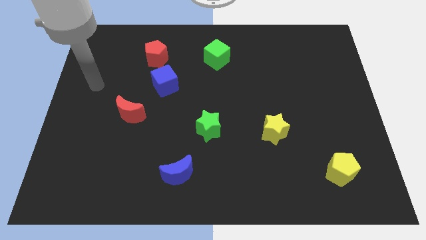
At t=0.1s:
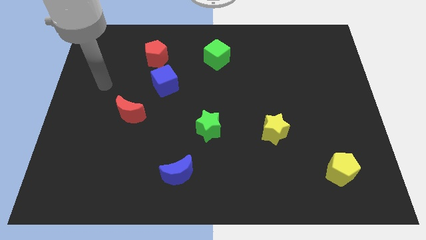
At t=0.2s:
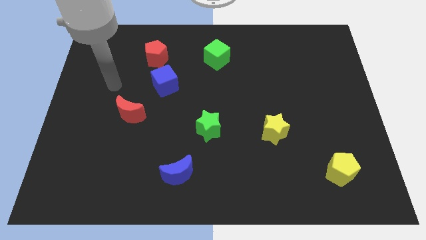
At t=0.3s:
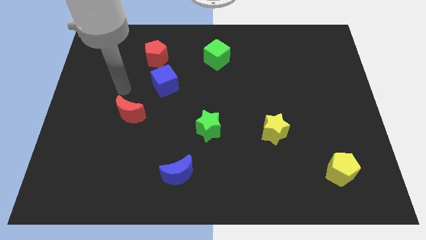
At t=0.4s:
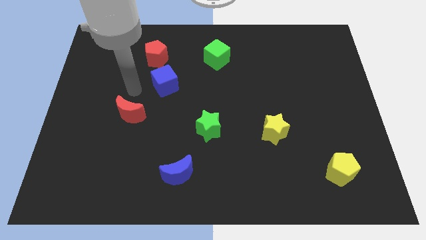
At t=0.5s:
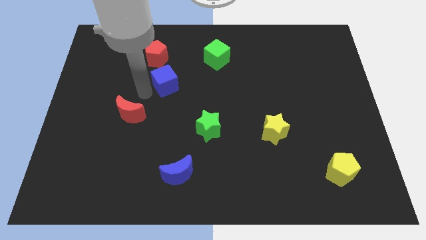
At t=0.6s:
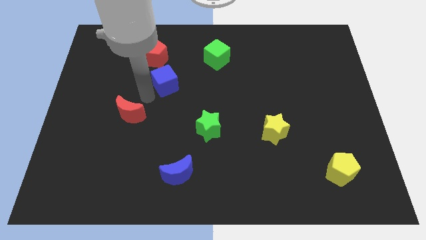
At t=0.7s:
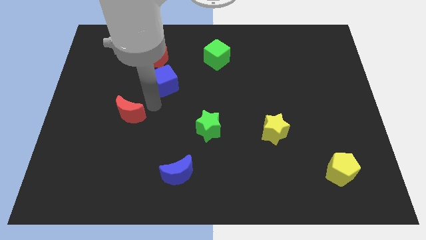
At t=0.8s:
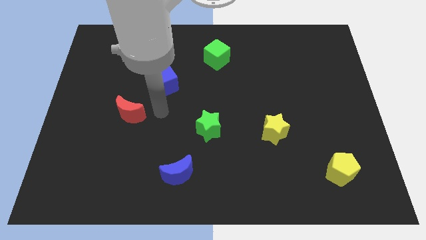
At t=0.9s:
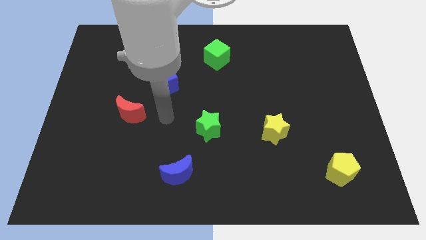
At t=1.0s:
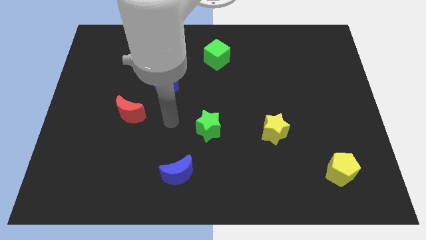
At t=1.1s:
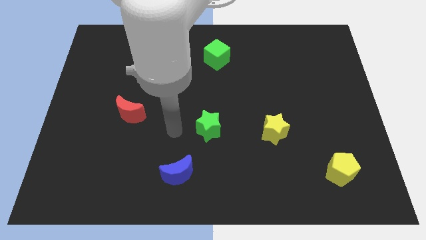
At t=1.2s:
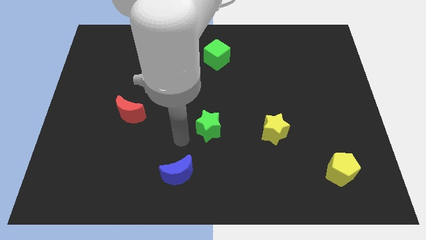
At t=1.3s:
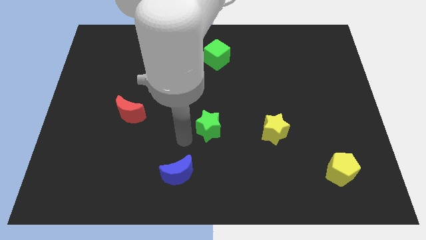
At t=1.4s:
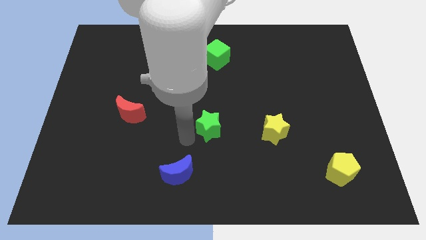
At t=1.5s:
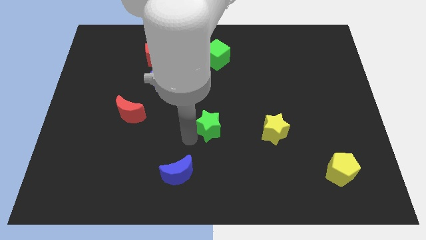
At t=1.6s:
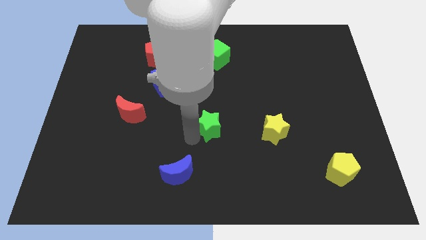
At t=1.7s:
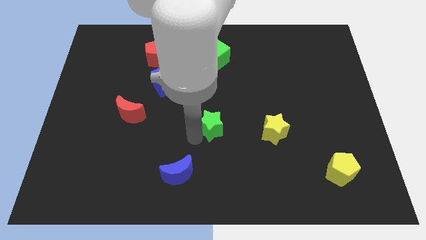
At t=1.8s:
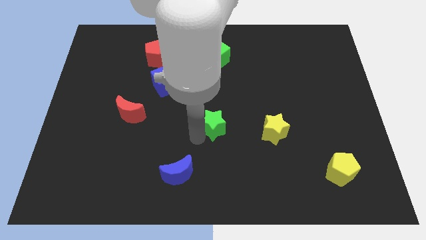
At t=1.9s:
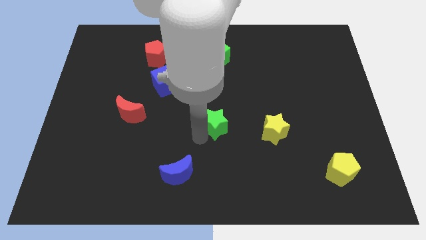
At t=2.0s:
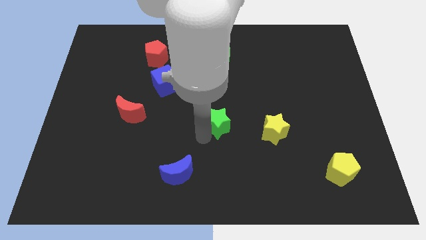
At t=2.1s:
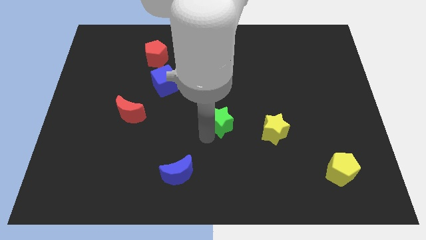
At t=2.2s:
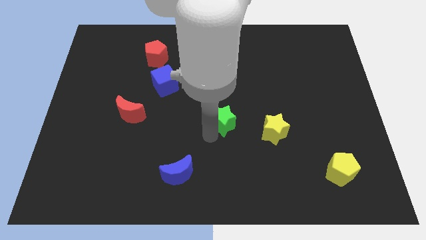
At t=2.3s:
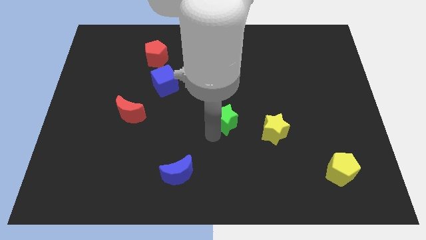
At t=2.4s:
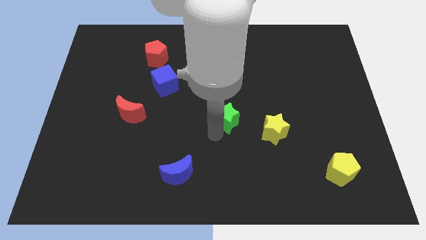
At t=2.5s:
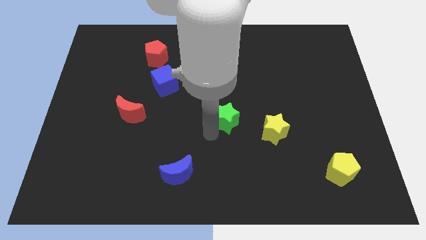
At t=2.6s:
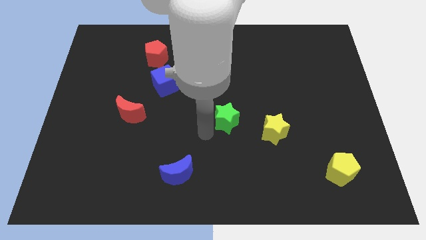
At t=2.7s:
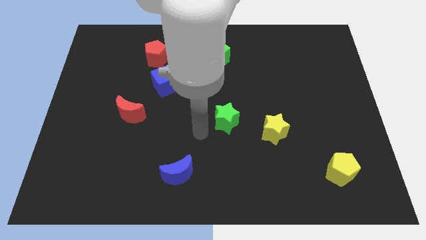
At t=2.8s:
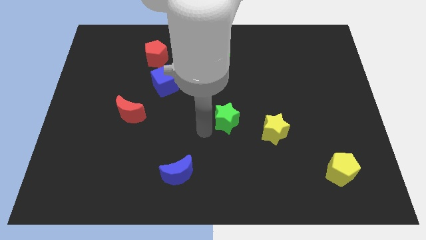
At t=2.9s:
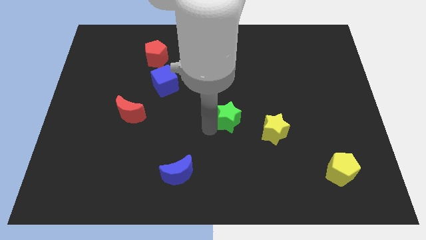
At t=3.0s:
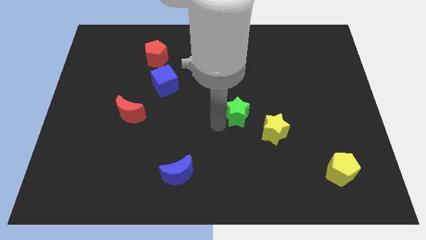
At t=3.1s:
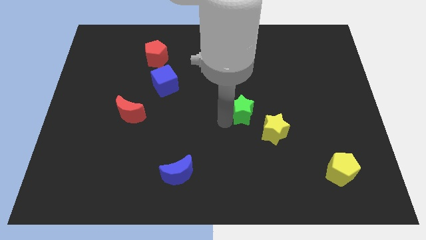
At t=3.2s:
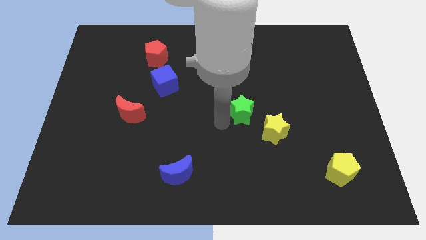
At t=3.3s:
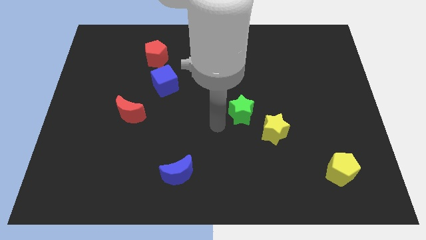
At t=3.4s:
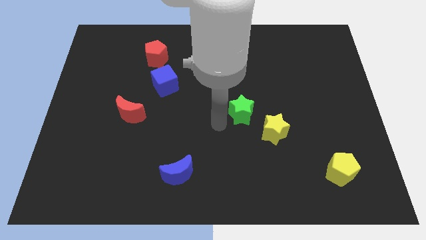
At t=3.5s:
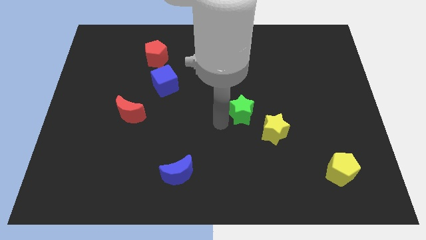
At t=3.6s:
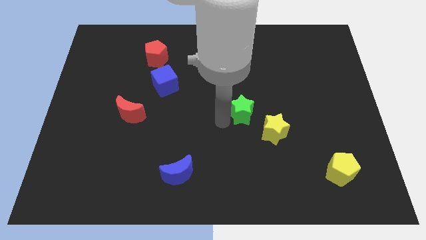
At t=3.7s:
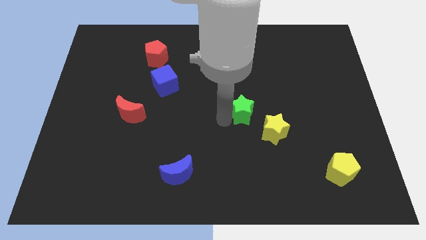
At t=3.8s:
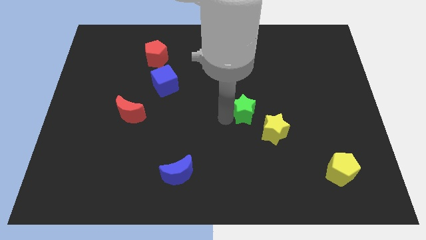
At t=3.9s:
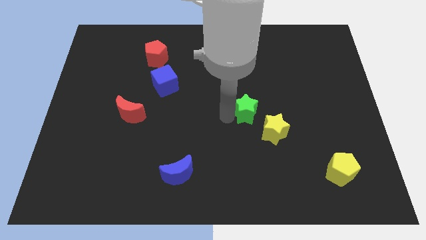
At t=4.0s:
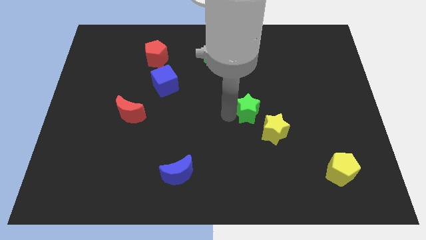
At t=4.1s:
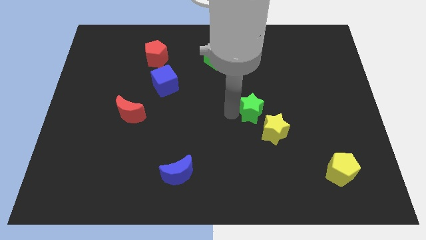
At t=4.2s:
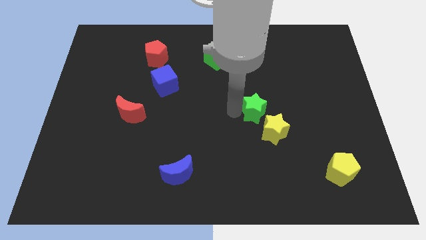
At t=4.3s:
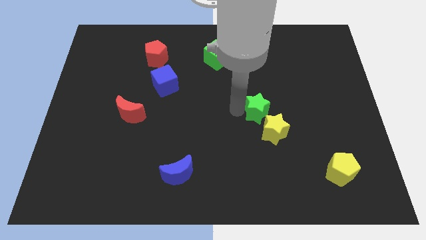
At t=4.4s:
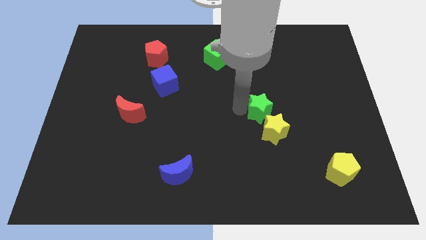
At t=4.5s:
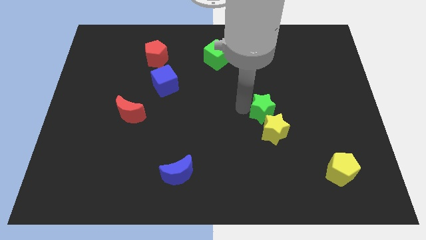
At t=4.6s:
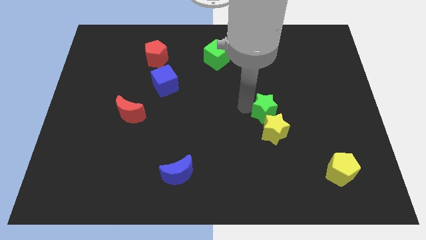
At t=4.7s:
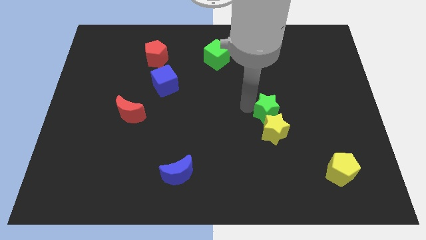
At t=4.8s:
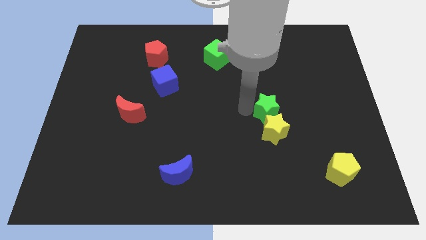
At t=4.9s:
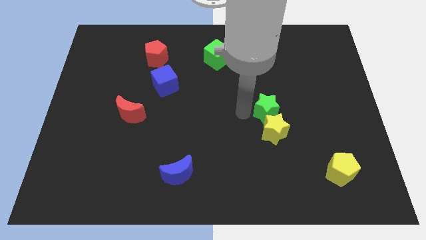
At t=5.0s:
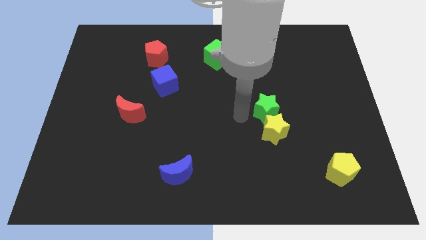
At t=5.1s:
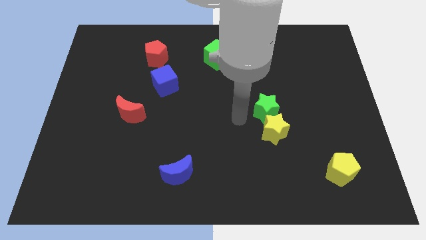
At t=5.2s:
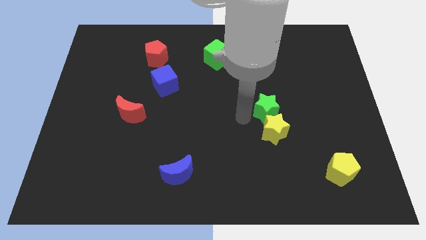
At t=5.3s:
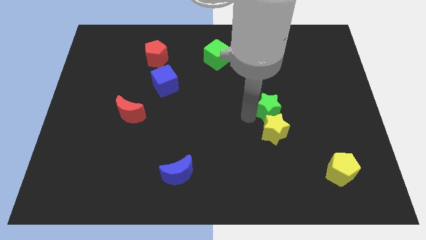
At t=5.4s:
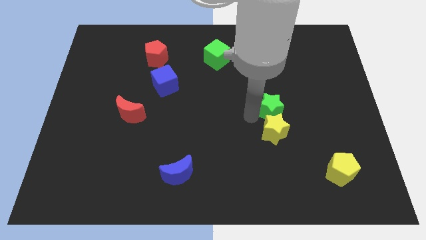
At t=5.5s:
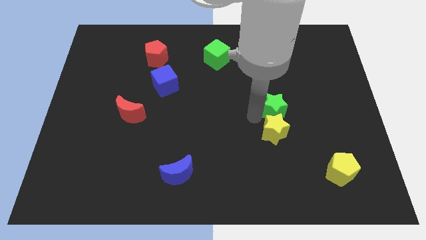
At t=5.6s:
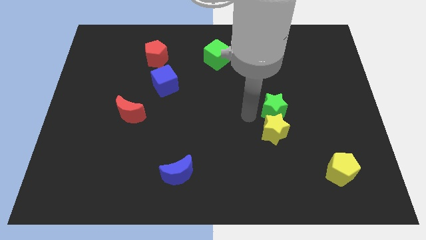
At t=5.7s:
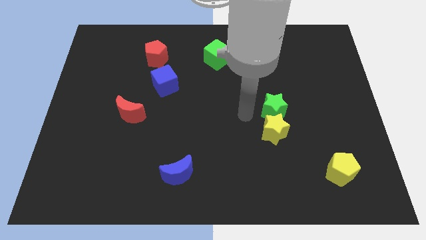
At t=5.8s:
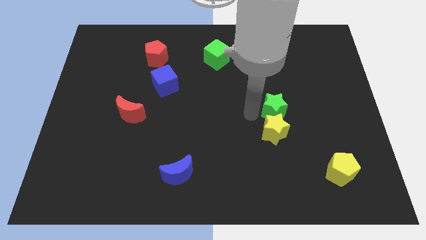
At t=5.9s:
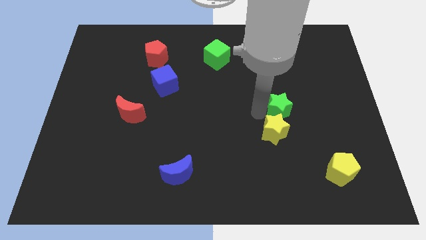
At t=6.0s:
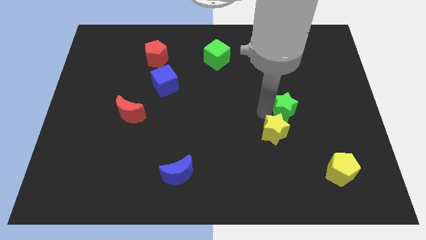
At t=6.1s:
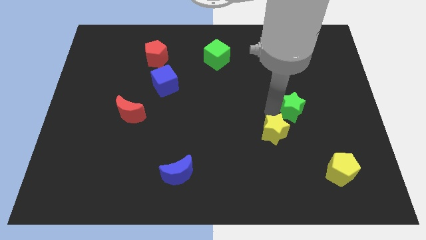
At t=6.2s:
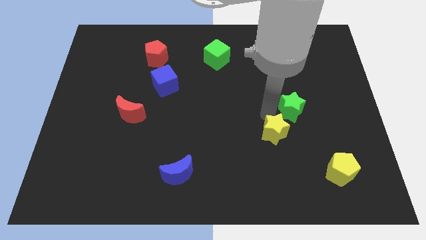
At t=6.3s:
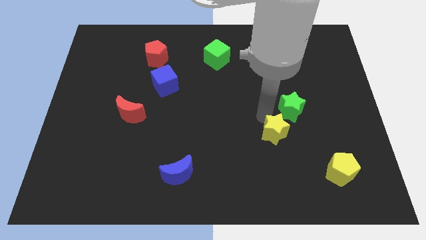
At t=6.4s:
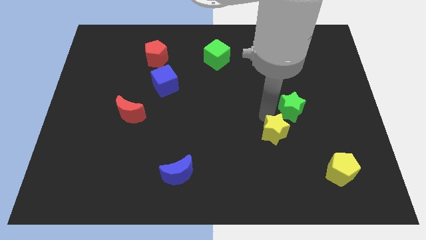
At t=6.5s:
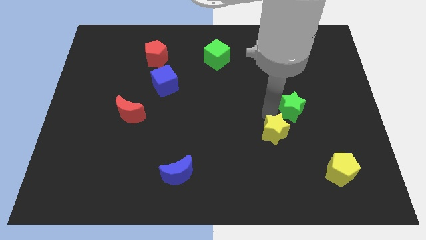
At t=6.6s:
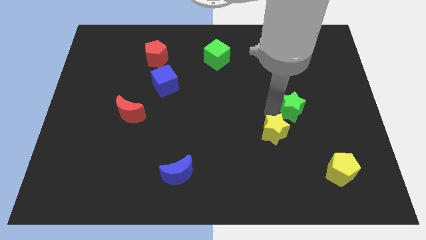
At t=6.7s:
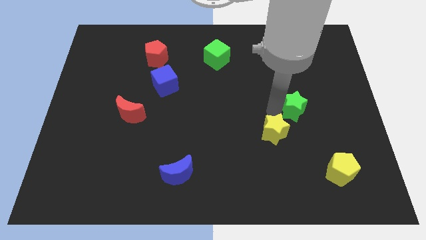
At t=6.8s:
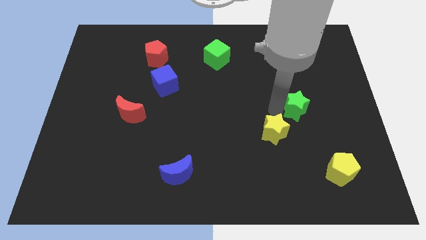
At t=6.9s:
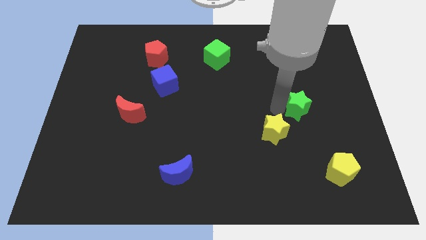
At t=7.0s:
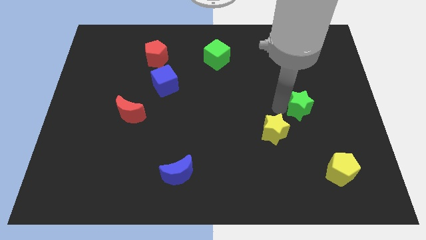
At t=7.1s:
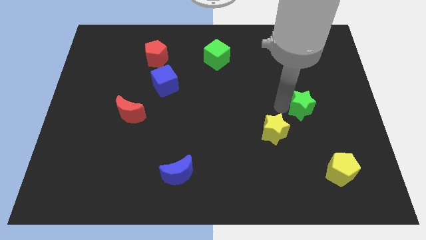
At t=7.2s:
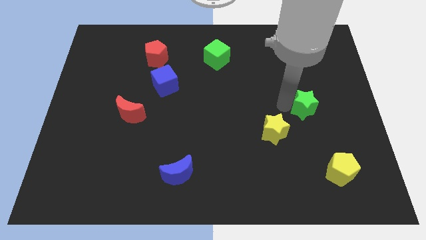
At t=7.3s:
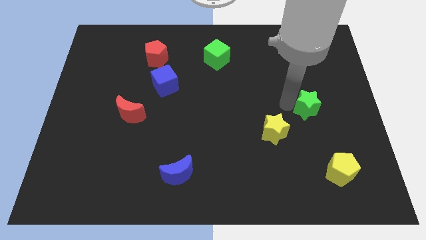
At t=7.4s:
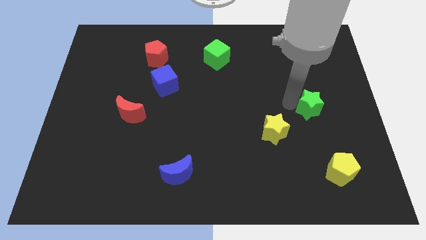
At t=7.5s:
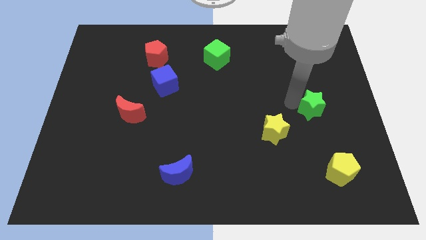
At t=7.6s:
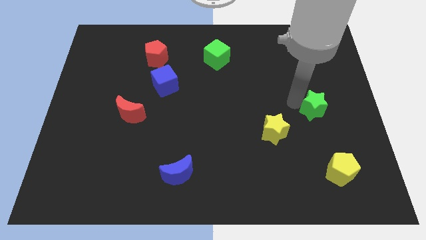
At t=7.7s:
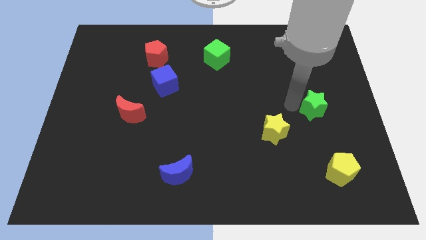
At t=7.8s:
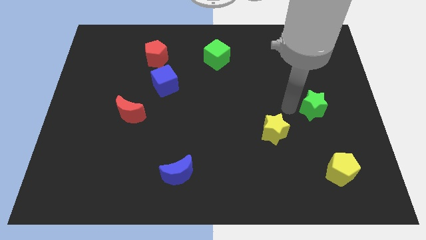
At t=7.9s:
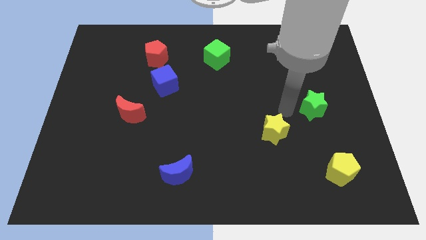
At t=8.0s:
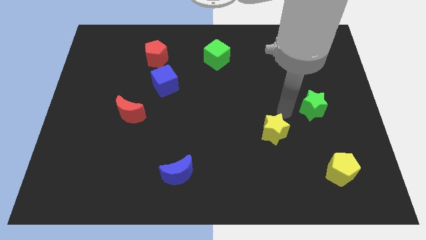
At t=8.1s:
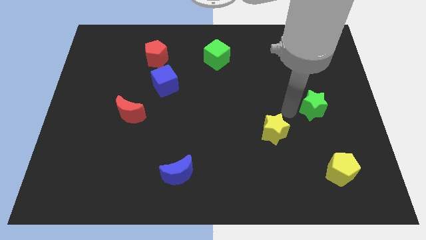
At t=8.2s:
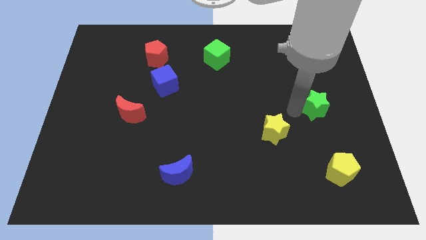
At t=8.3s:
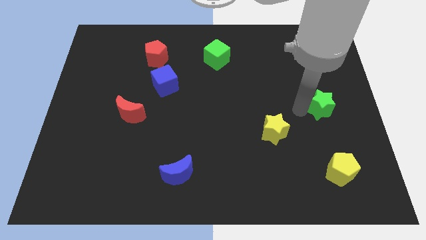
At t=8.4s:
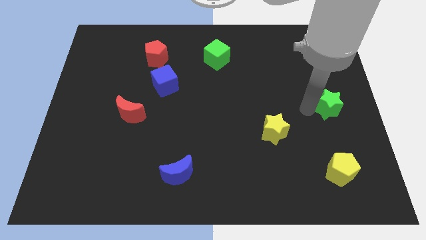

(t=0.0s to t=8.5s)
put the green star to the right side
